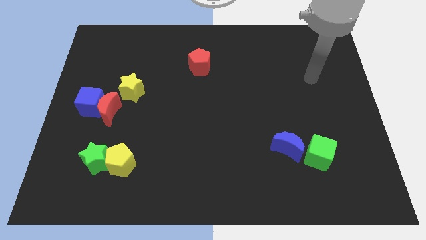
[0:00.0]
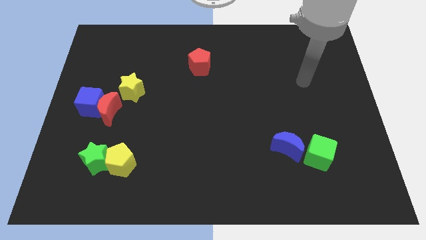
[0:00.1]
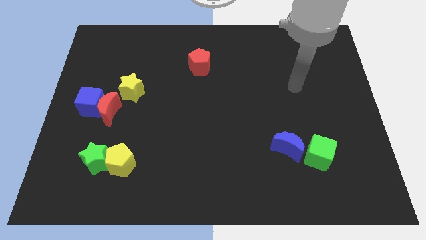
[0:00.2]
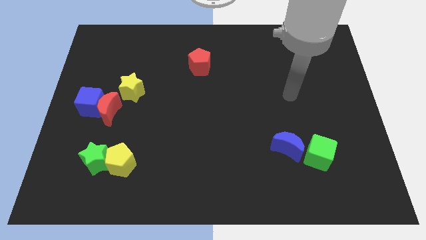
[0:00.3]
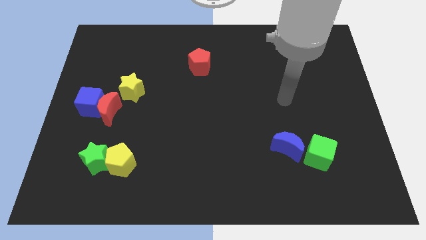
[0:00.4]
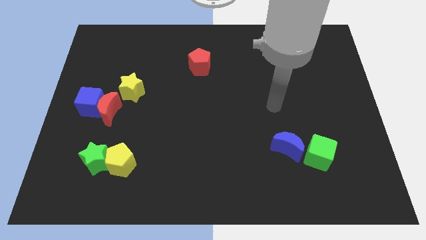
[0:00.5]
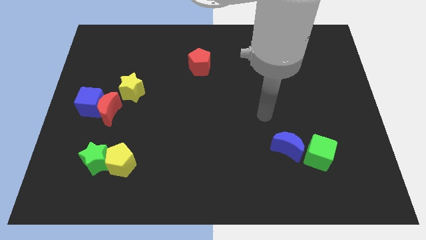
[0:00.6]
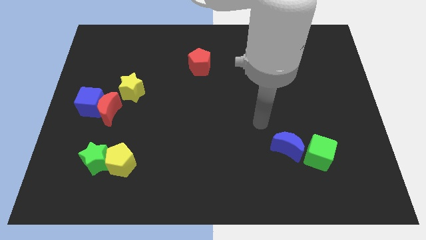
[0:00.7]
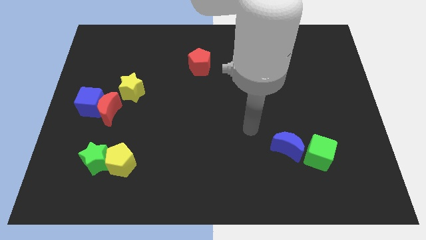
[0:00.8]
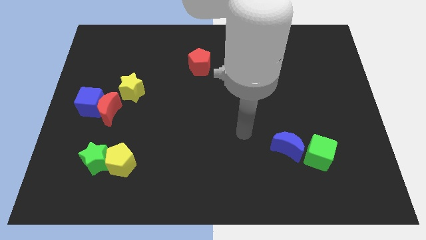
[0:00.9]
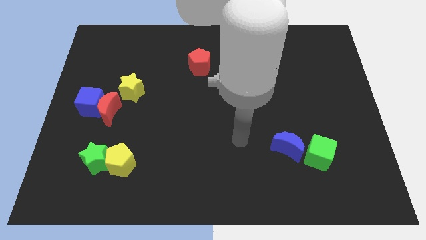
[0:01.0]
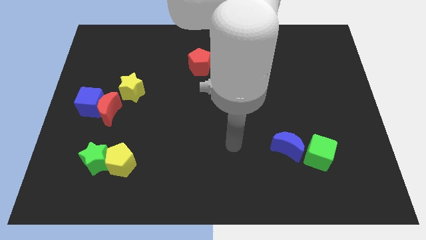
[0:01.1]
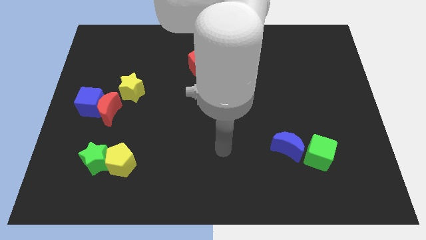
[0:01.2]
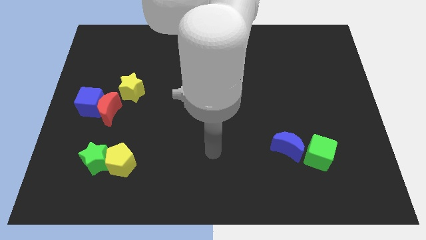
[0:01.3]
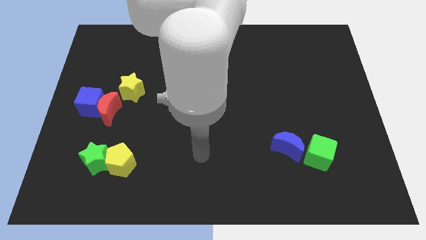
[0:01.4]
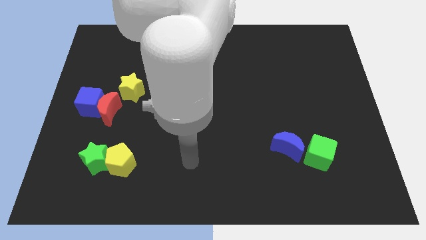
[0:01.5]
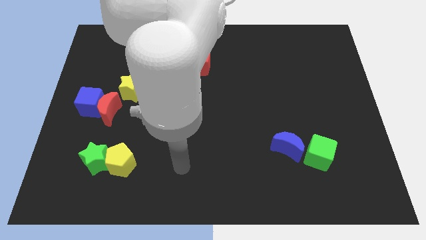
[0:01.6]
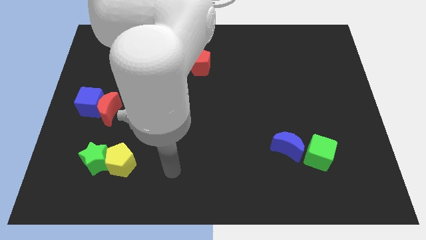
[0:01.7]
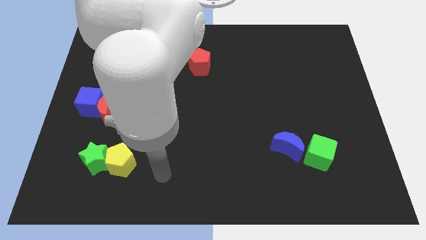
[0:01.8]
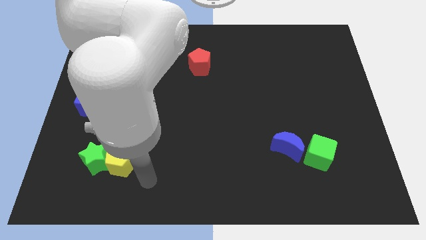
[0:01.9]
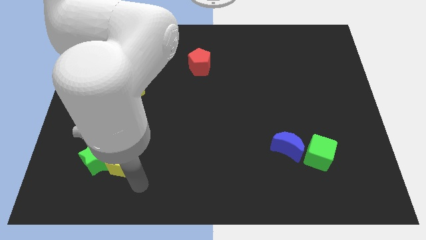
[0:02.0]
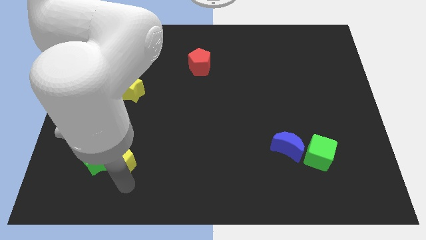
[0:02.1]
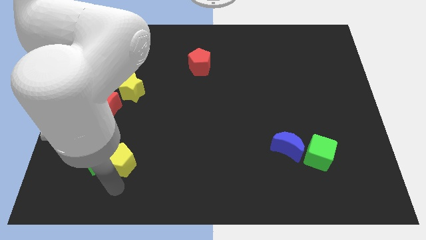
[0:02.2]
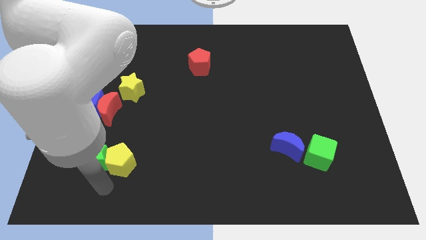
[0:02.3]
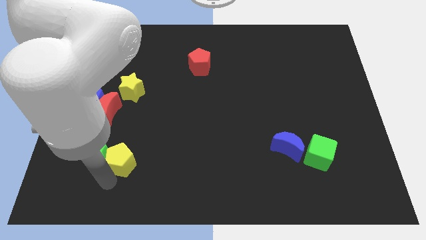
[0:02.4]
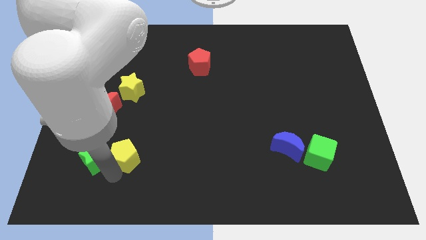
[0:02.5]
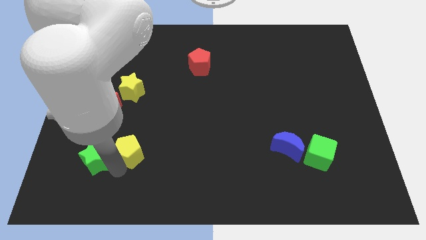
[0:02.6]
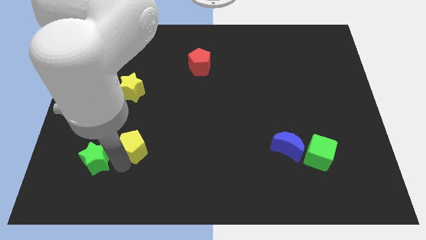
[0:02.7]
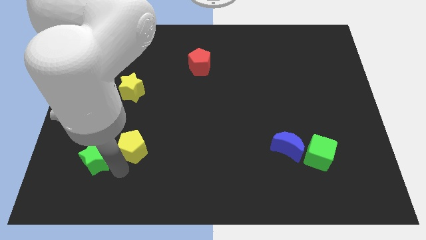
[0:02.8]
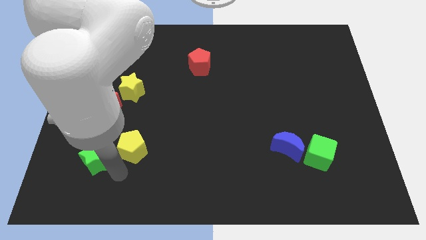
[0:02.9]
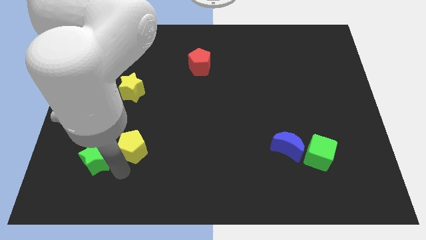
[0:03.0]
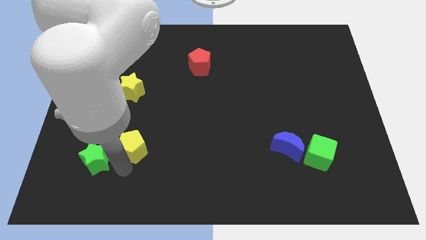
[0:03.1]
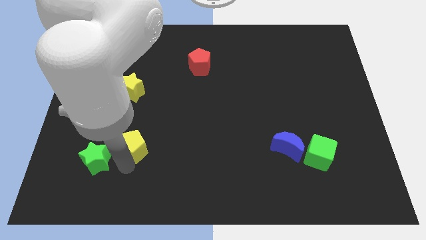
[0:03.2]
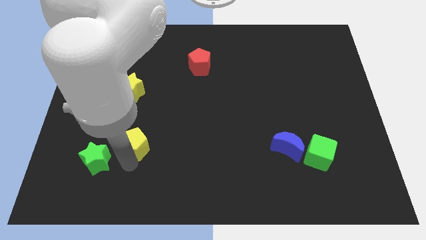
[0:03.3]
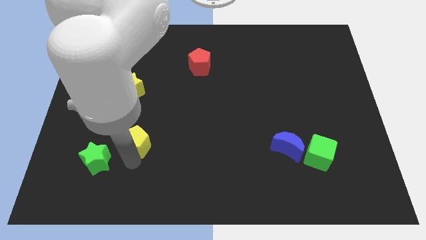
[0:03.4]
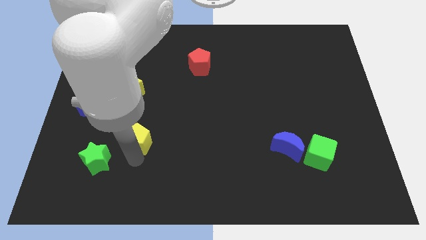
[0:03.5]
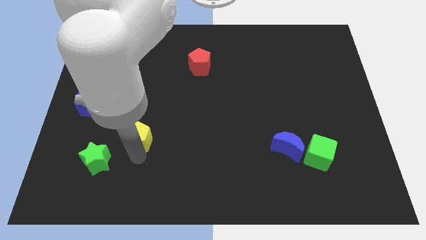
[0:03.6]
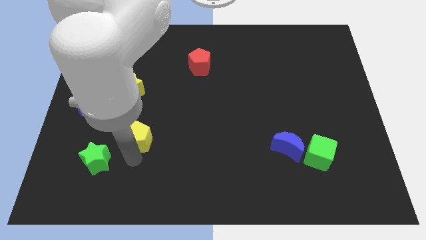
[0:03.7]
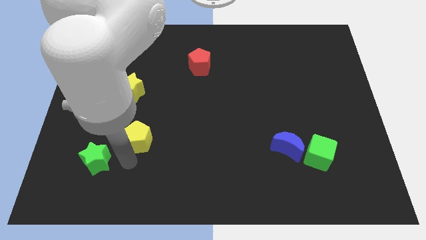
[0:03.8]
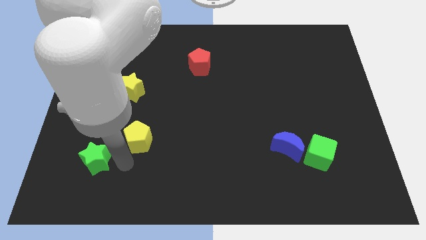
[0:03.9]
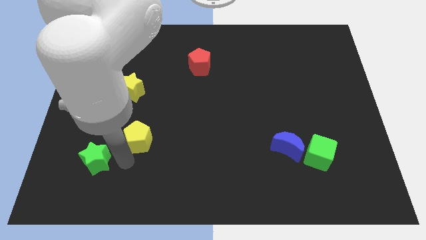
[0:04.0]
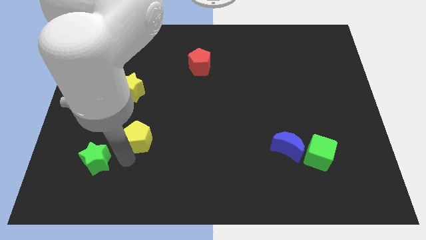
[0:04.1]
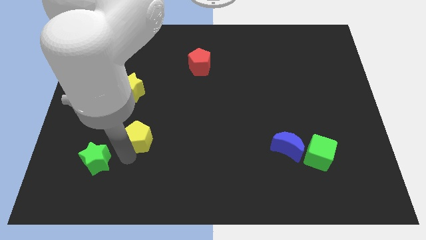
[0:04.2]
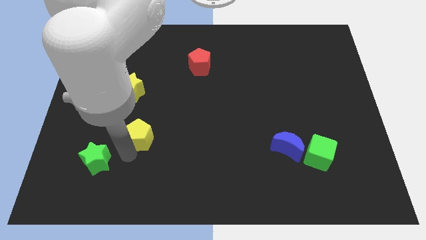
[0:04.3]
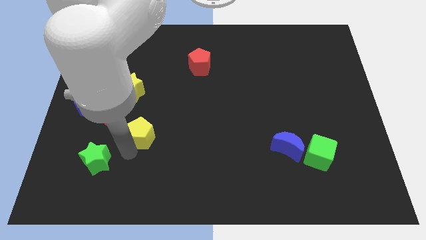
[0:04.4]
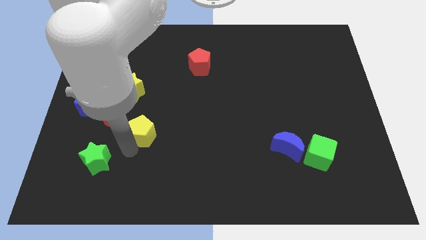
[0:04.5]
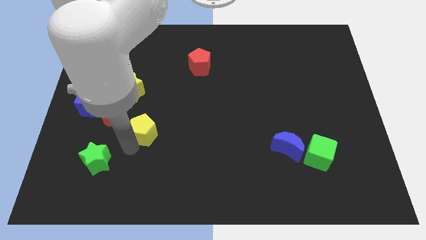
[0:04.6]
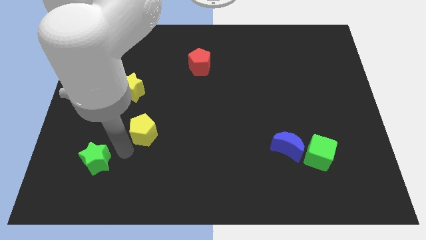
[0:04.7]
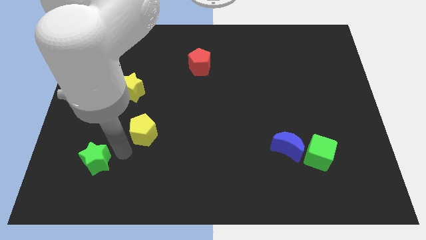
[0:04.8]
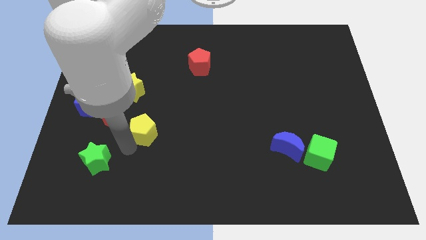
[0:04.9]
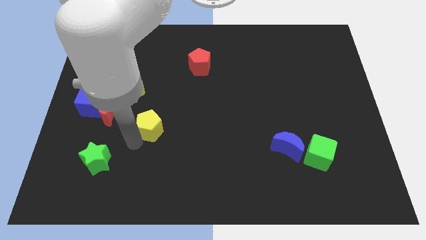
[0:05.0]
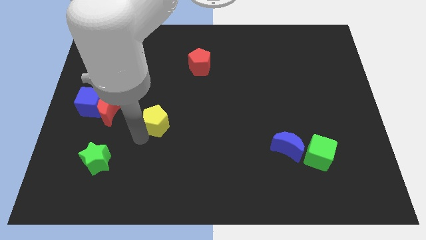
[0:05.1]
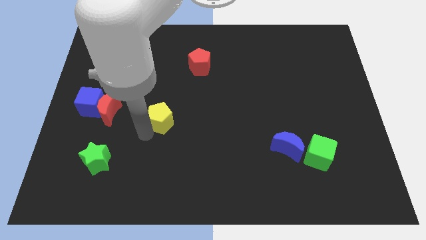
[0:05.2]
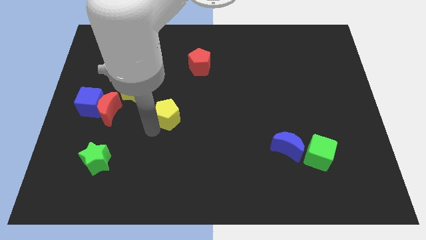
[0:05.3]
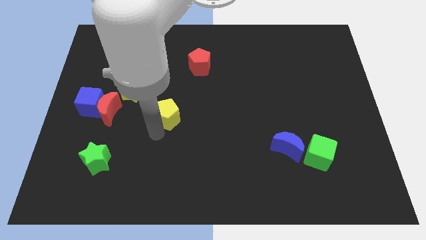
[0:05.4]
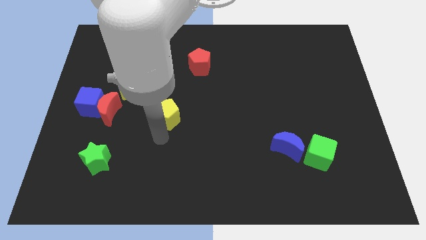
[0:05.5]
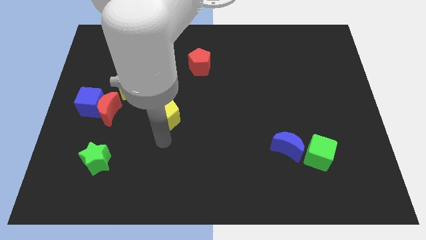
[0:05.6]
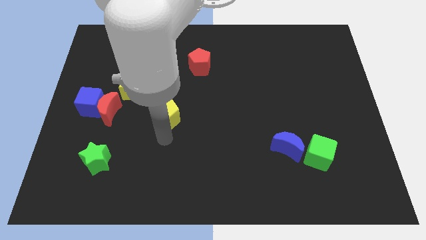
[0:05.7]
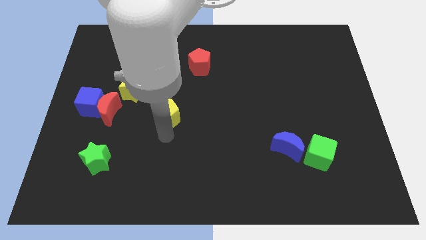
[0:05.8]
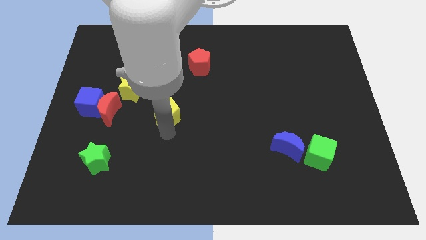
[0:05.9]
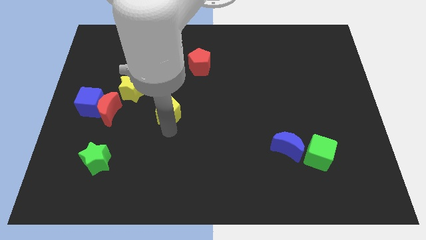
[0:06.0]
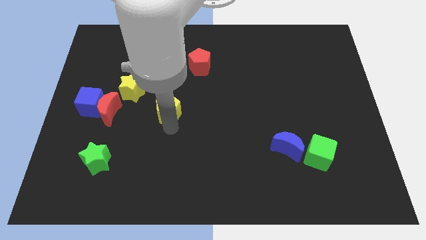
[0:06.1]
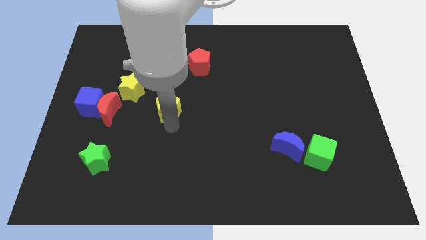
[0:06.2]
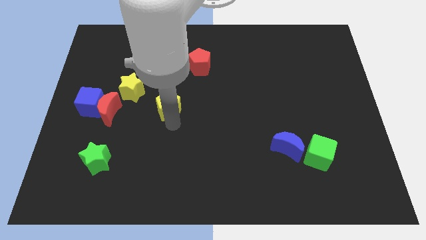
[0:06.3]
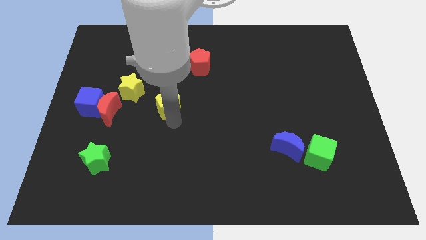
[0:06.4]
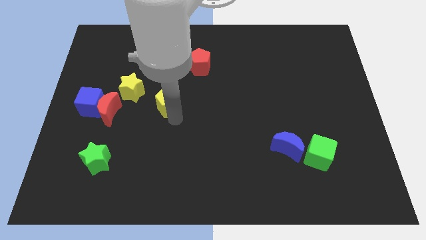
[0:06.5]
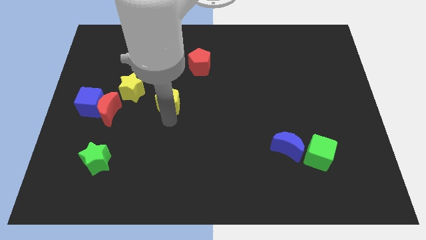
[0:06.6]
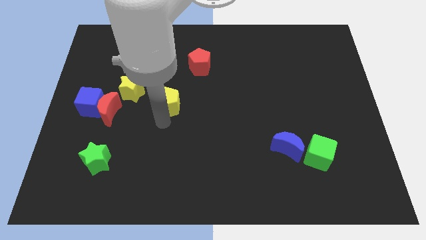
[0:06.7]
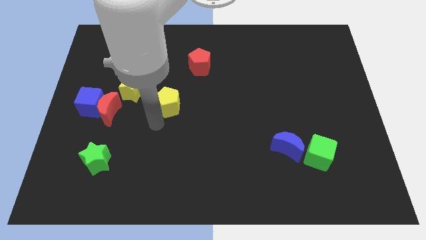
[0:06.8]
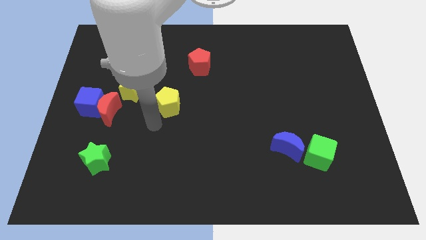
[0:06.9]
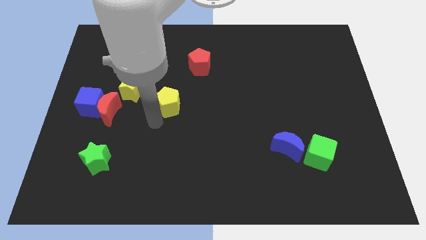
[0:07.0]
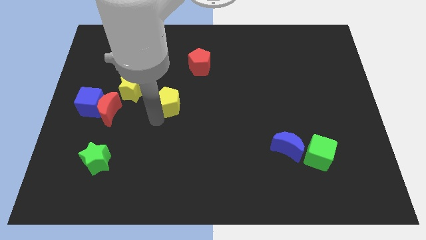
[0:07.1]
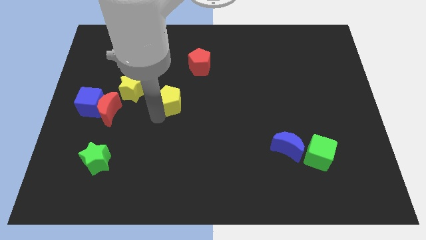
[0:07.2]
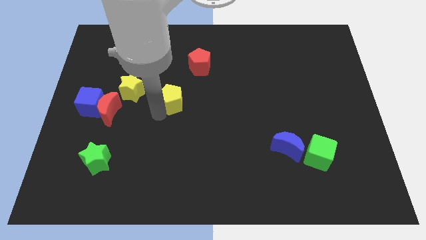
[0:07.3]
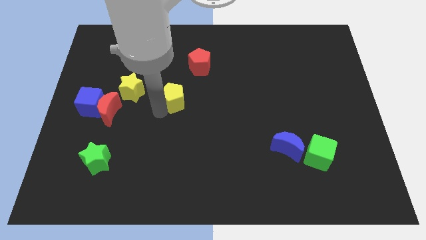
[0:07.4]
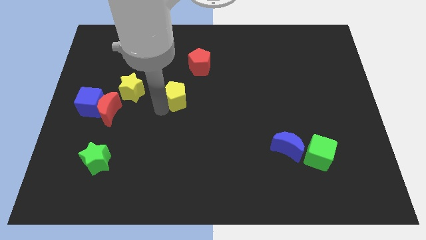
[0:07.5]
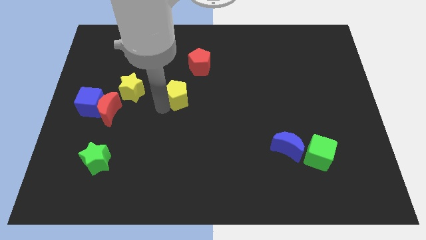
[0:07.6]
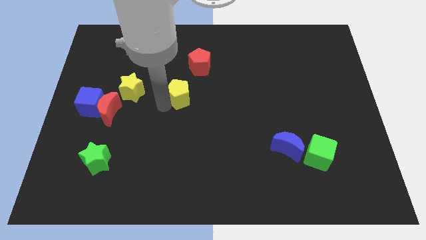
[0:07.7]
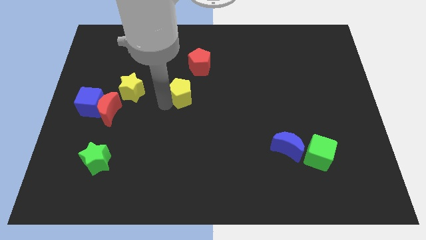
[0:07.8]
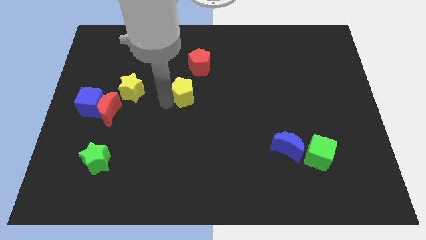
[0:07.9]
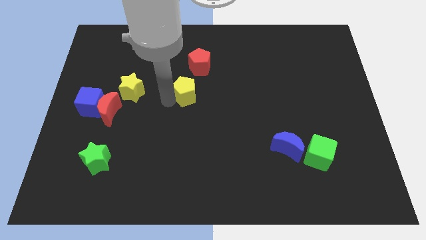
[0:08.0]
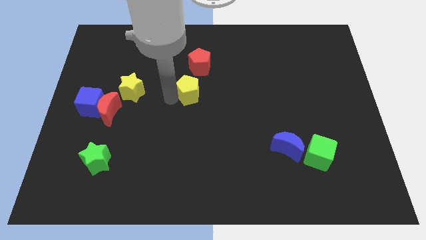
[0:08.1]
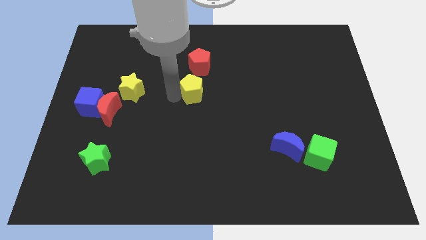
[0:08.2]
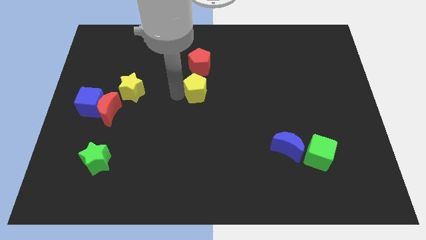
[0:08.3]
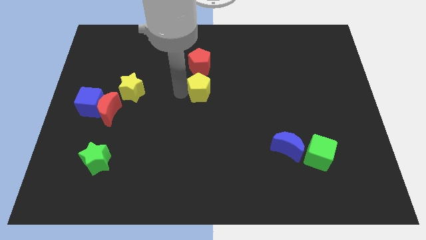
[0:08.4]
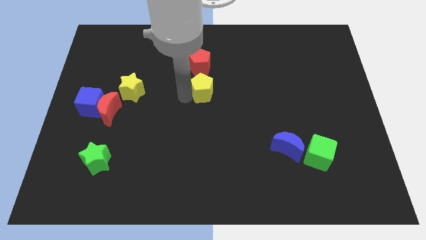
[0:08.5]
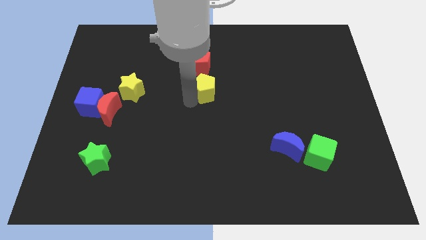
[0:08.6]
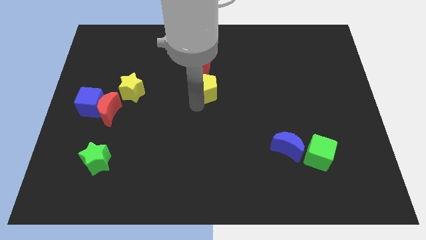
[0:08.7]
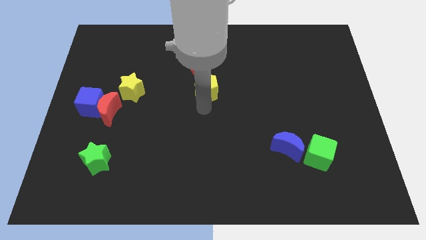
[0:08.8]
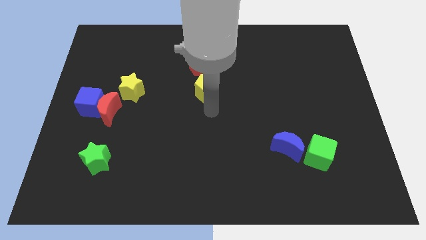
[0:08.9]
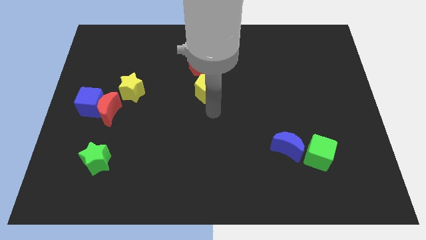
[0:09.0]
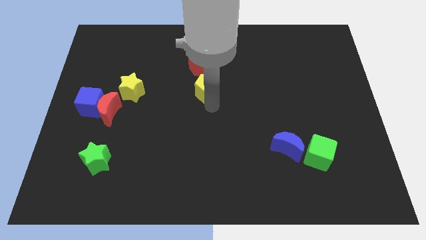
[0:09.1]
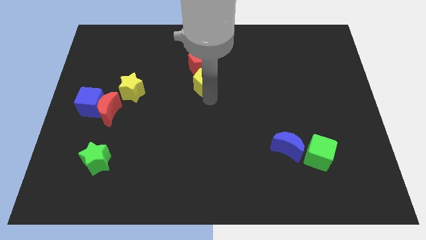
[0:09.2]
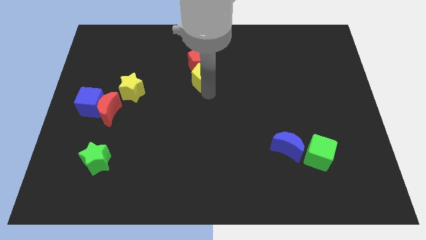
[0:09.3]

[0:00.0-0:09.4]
slide the yellow pentagon close to the red pentagon
